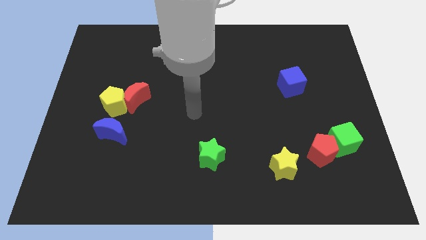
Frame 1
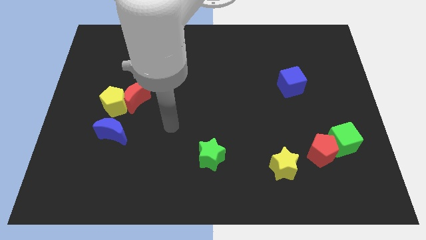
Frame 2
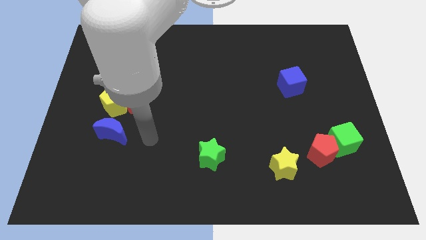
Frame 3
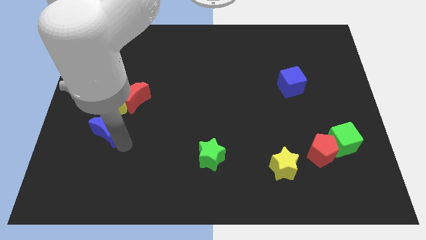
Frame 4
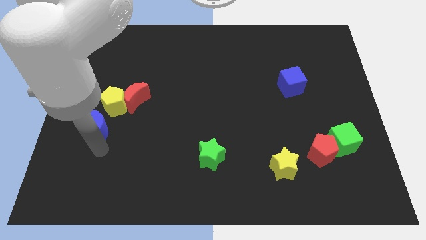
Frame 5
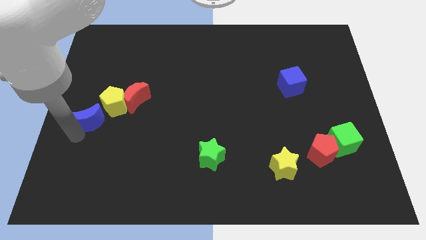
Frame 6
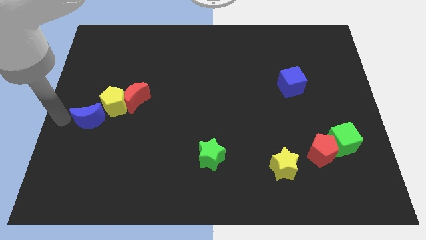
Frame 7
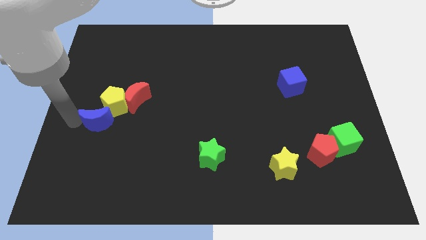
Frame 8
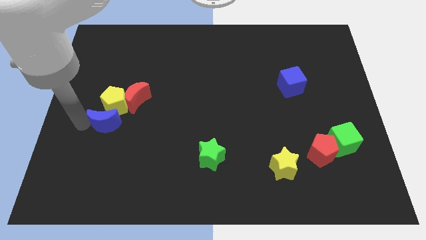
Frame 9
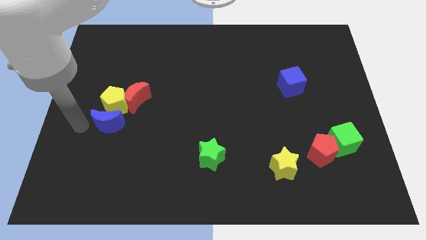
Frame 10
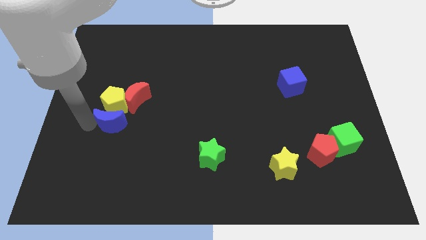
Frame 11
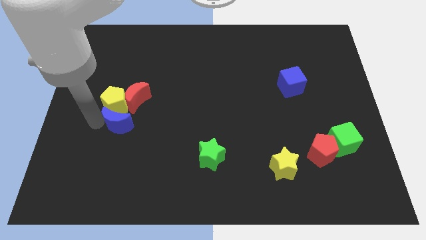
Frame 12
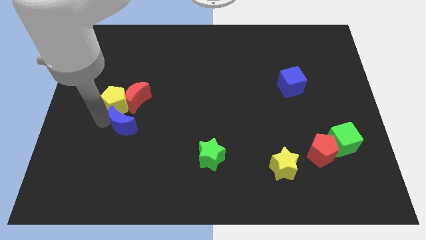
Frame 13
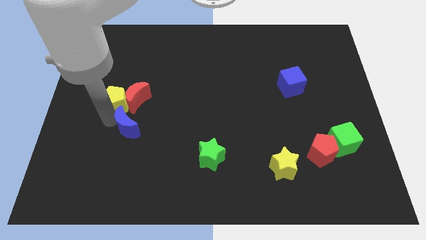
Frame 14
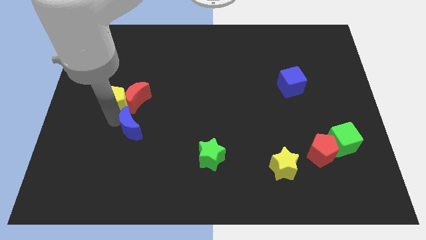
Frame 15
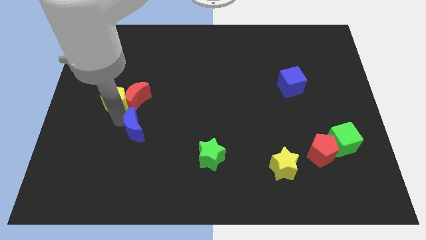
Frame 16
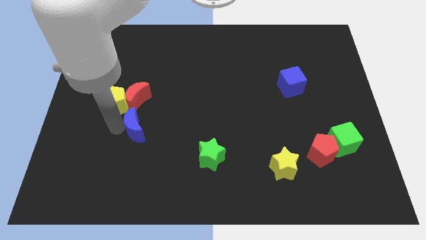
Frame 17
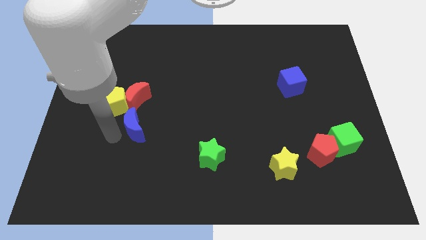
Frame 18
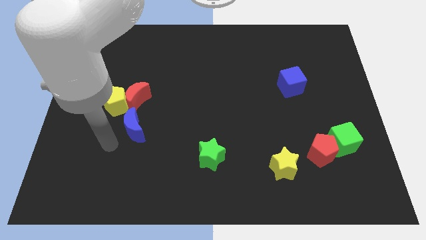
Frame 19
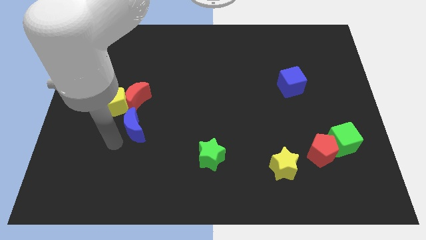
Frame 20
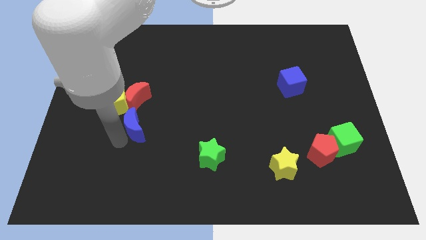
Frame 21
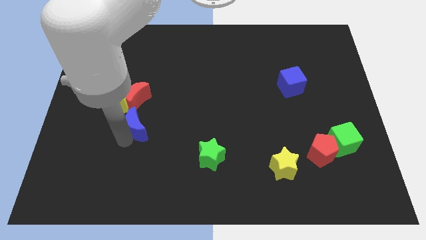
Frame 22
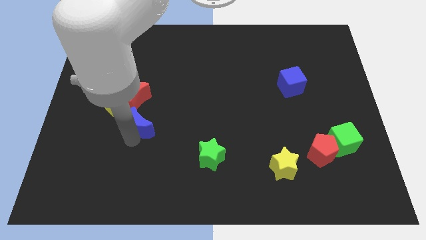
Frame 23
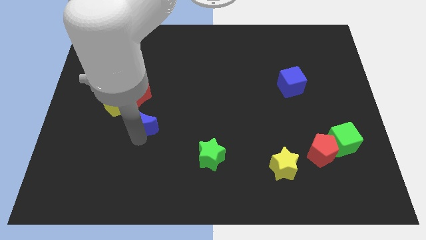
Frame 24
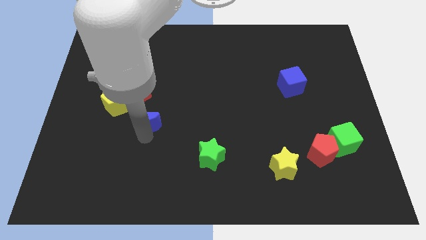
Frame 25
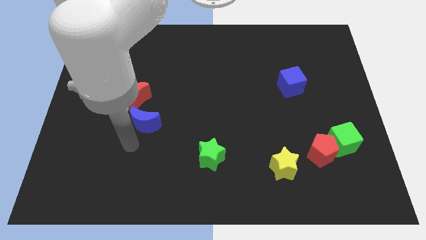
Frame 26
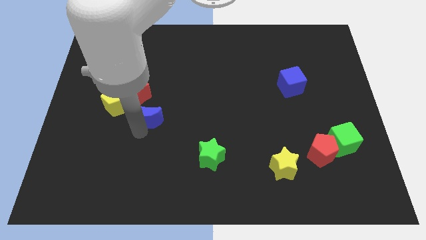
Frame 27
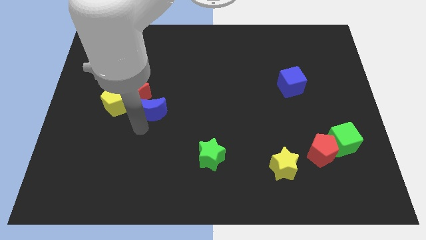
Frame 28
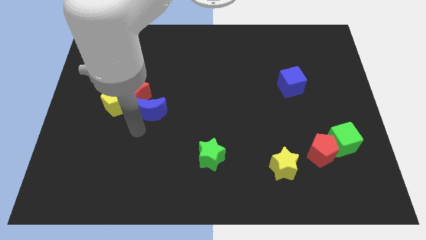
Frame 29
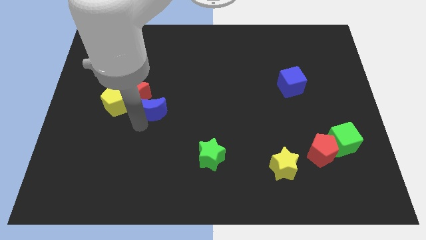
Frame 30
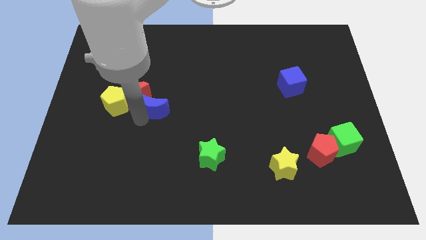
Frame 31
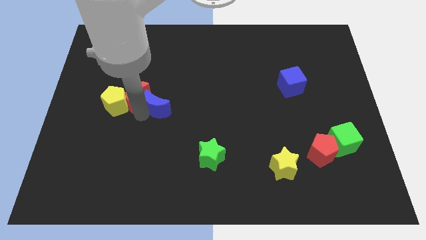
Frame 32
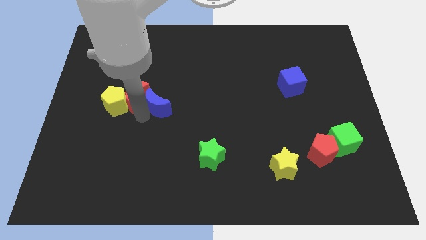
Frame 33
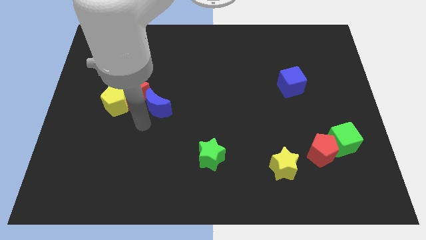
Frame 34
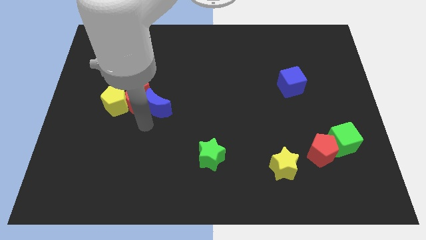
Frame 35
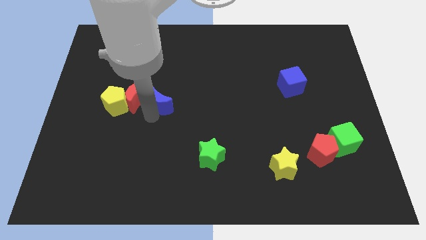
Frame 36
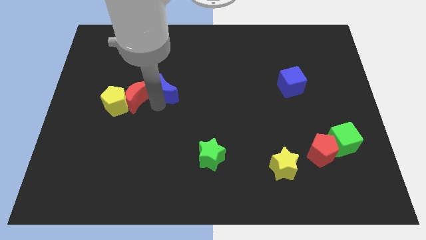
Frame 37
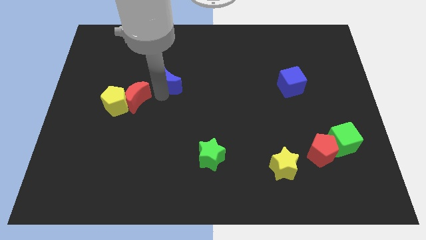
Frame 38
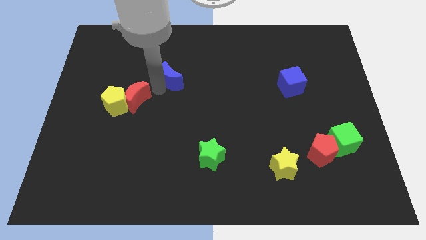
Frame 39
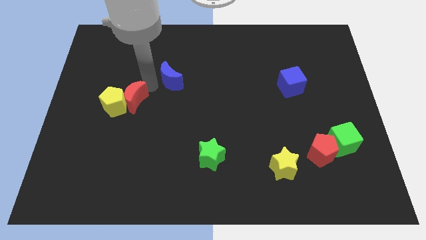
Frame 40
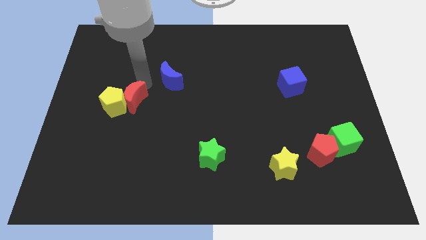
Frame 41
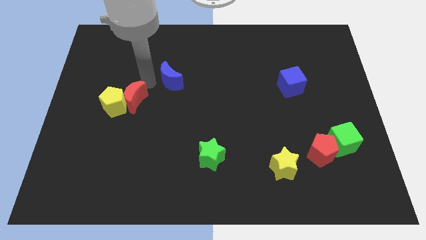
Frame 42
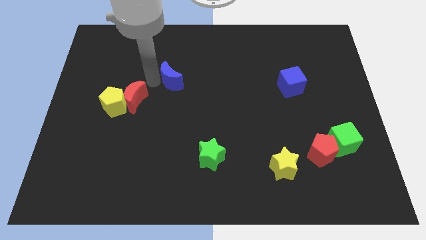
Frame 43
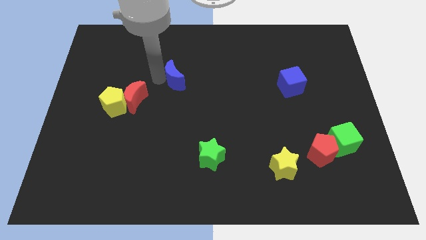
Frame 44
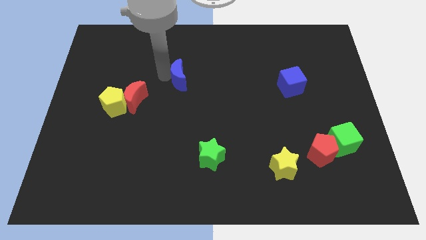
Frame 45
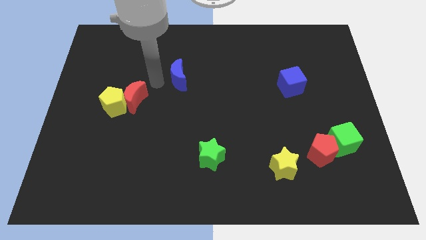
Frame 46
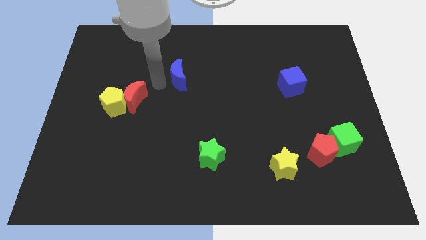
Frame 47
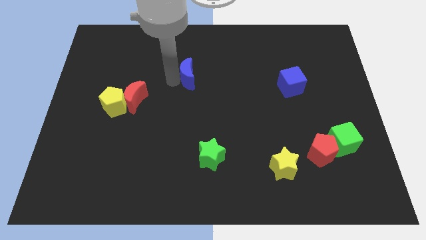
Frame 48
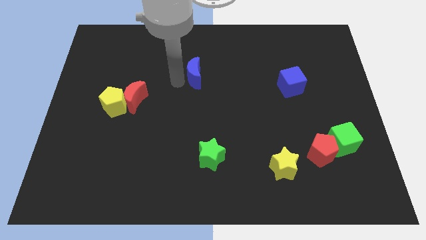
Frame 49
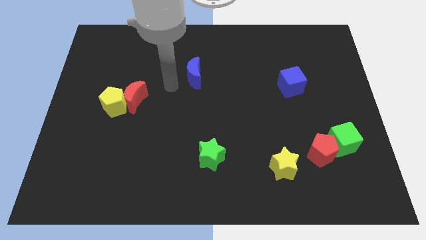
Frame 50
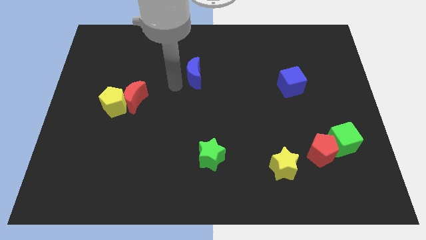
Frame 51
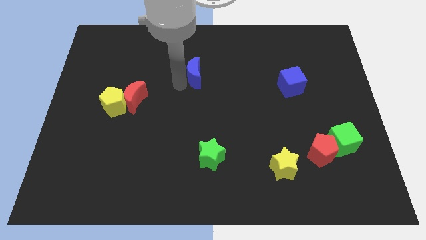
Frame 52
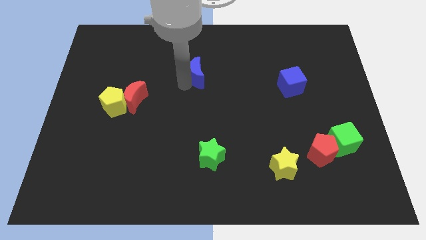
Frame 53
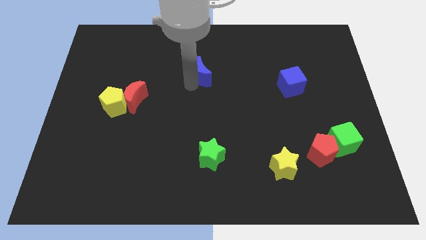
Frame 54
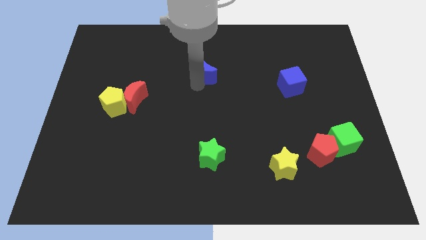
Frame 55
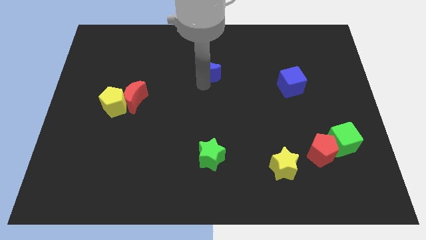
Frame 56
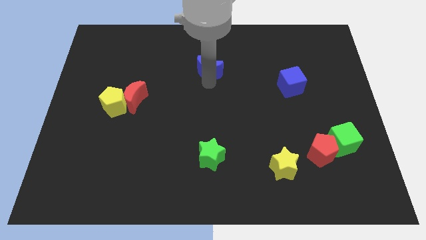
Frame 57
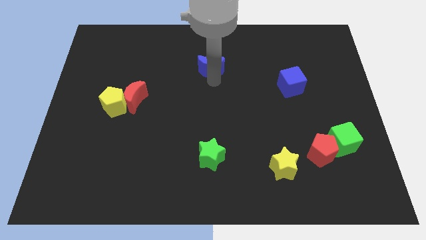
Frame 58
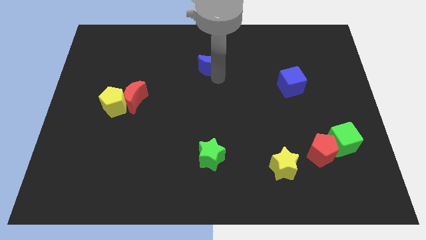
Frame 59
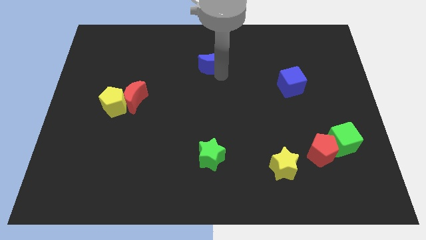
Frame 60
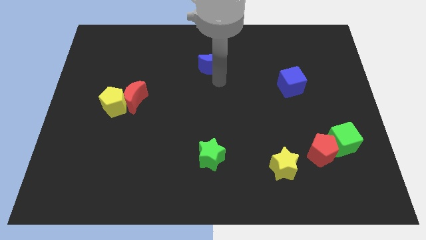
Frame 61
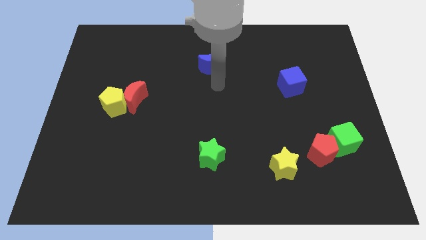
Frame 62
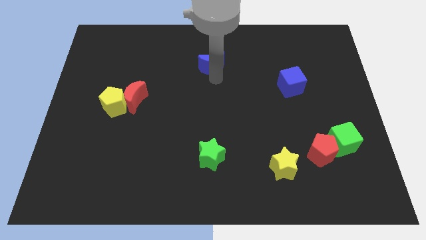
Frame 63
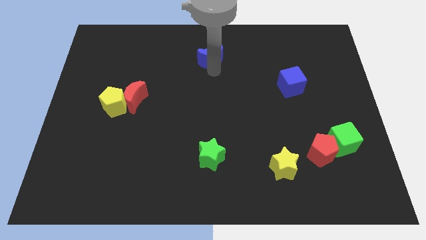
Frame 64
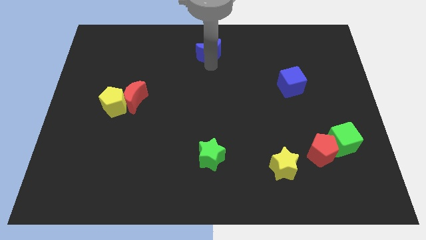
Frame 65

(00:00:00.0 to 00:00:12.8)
slide the blue moon to the top
